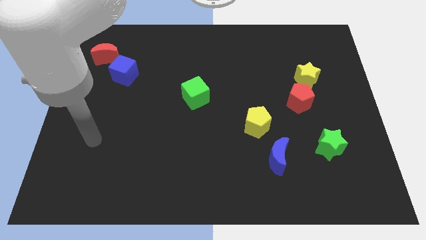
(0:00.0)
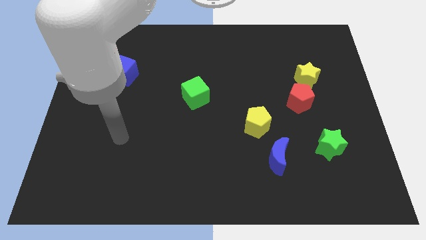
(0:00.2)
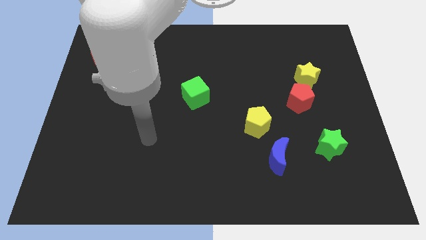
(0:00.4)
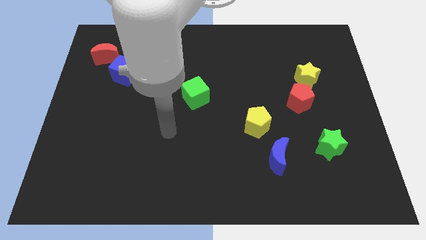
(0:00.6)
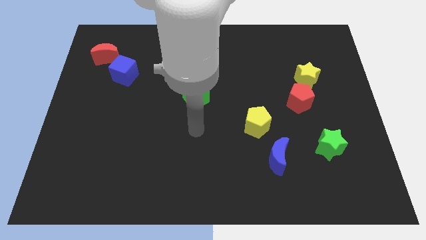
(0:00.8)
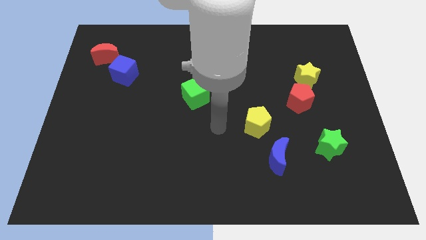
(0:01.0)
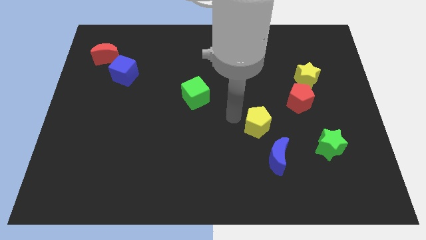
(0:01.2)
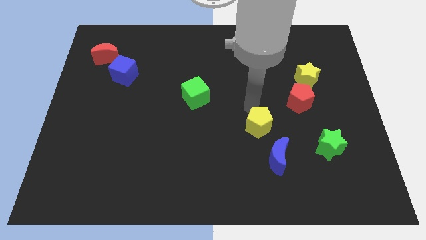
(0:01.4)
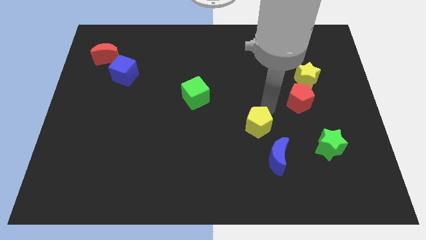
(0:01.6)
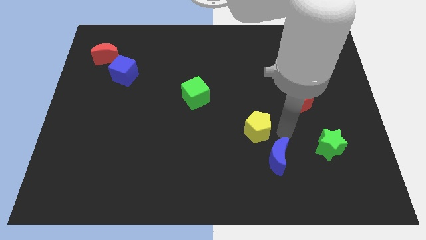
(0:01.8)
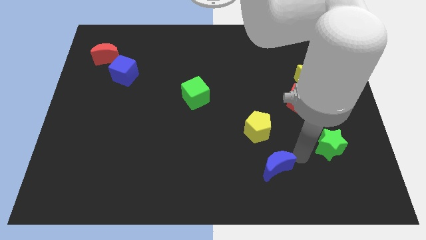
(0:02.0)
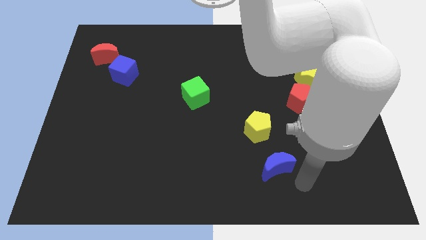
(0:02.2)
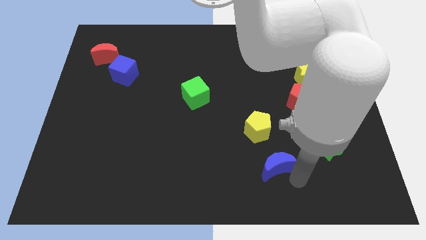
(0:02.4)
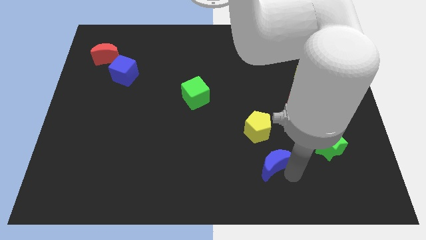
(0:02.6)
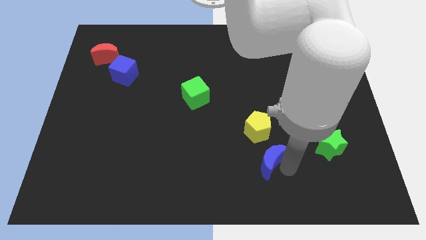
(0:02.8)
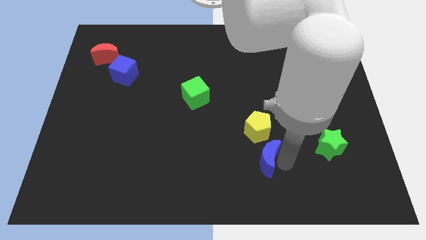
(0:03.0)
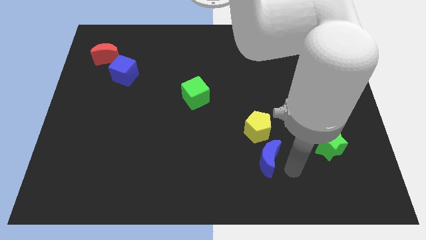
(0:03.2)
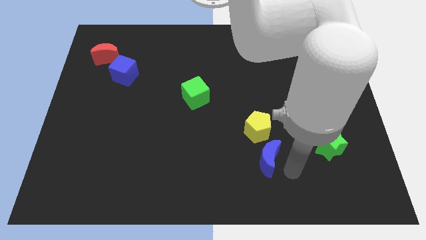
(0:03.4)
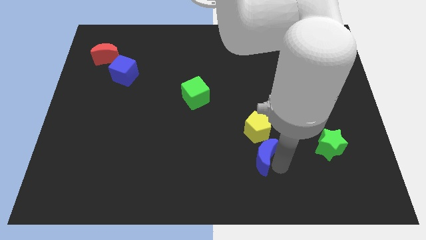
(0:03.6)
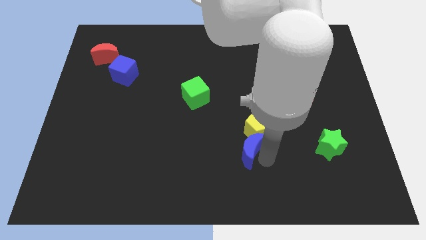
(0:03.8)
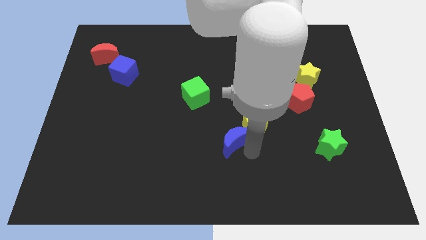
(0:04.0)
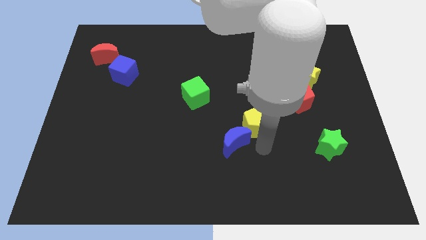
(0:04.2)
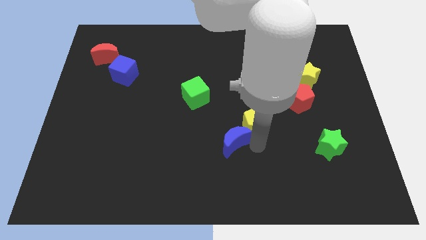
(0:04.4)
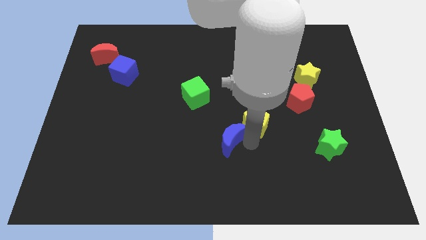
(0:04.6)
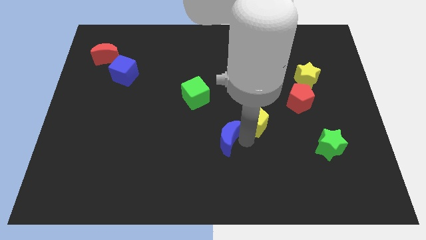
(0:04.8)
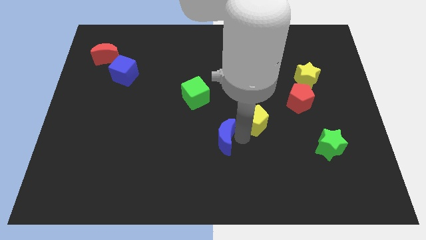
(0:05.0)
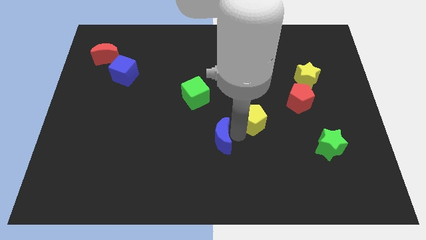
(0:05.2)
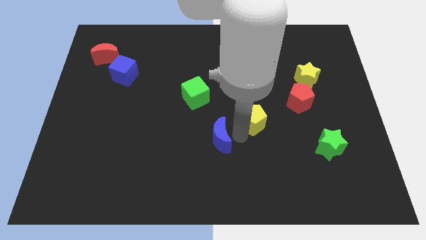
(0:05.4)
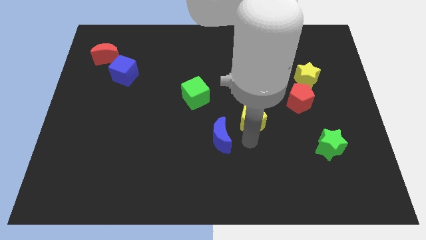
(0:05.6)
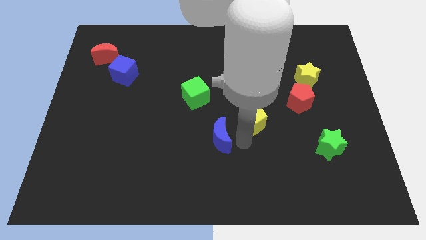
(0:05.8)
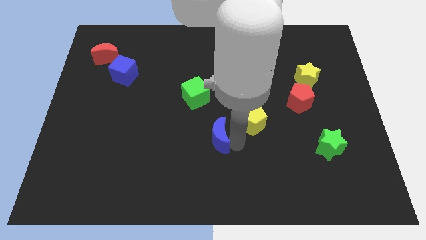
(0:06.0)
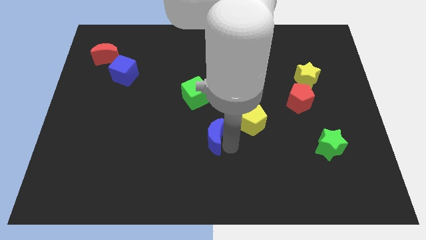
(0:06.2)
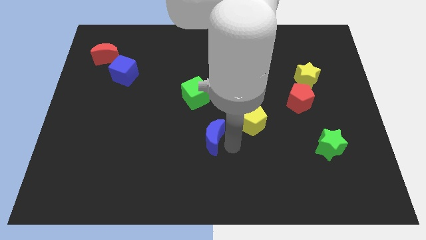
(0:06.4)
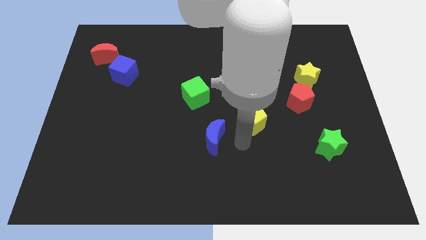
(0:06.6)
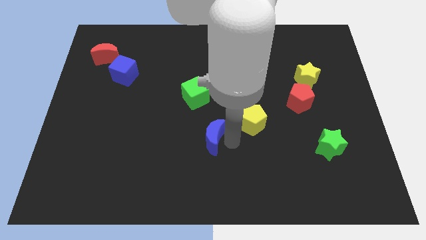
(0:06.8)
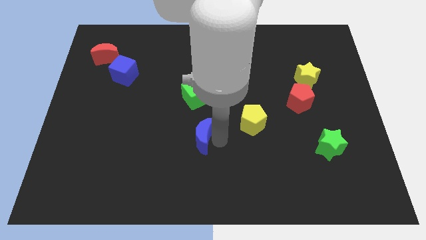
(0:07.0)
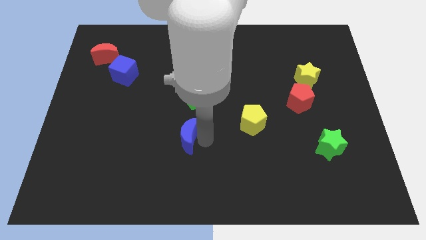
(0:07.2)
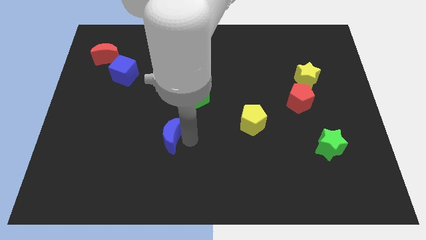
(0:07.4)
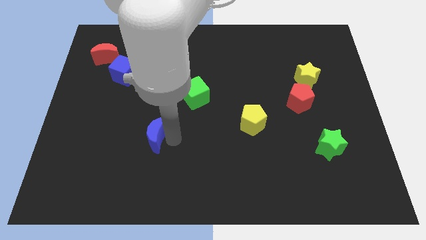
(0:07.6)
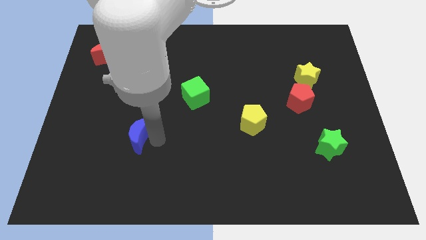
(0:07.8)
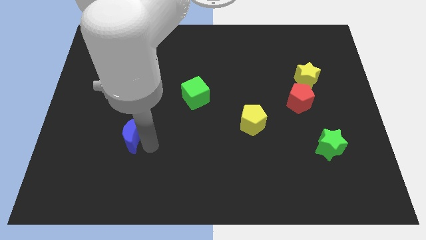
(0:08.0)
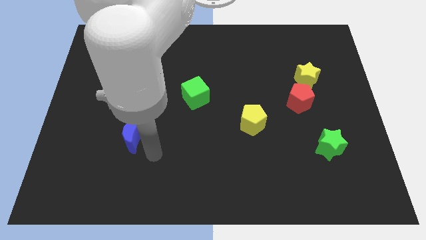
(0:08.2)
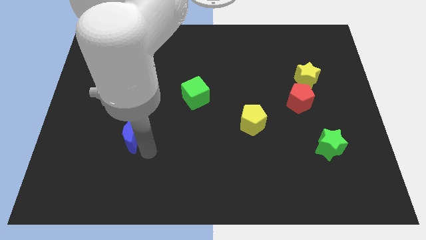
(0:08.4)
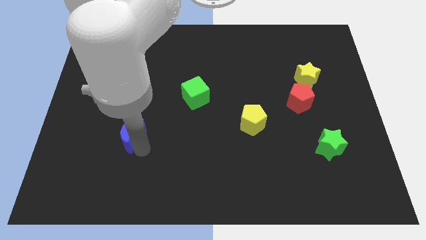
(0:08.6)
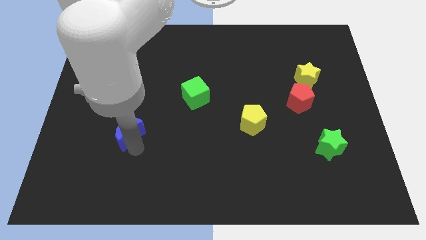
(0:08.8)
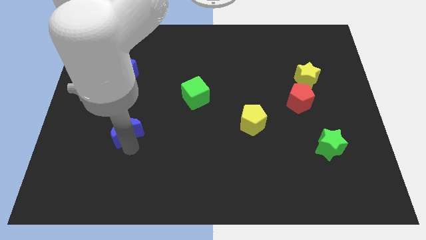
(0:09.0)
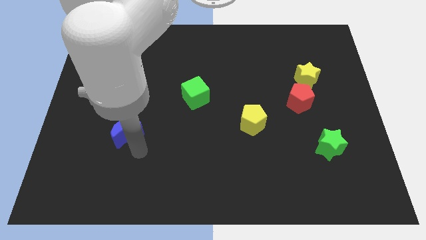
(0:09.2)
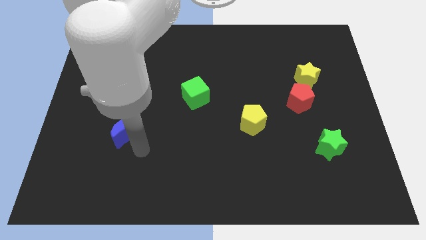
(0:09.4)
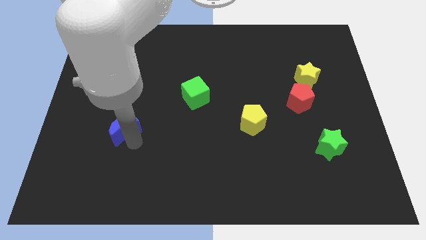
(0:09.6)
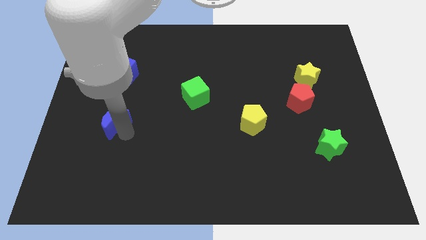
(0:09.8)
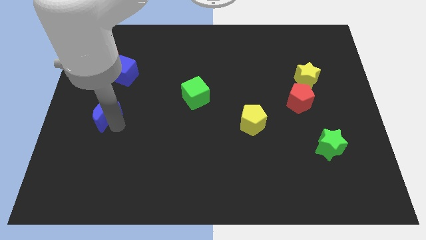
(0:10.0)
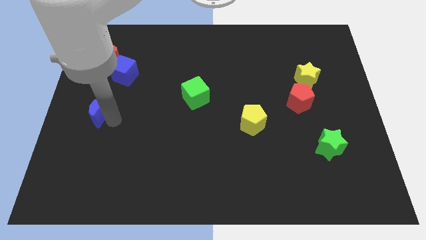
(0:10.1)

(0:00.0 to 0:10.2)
slide the blue moon to the center left

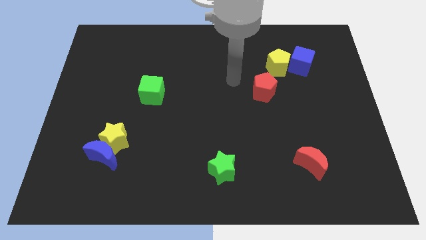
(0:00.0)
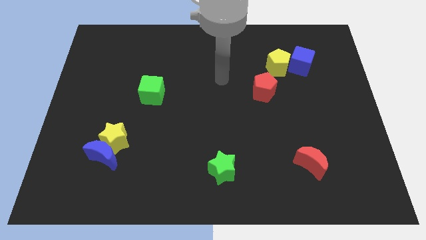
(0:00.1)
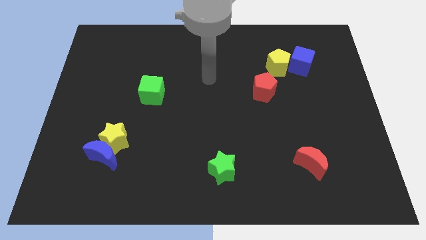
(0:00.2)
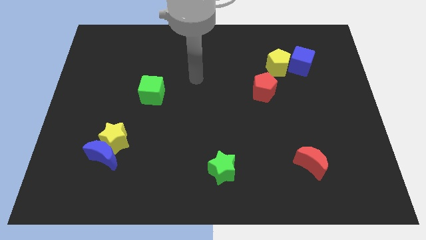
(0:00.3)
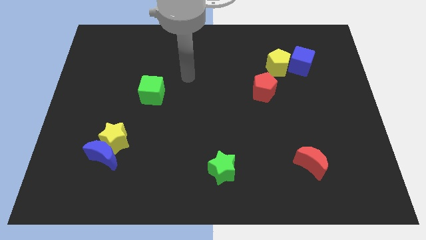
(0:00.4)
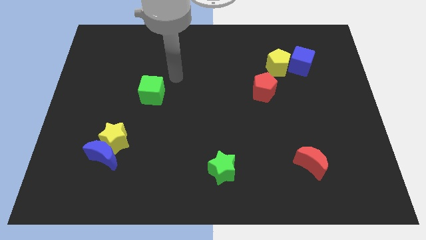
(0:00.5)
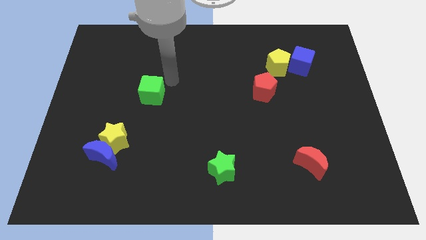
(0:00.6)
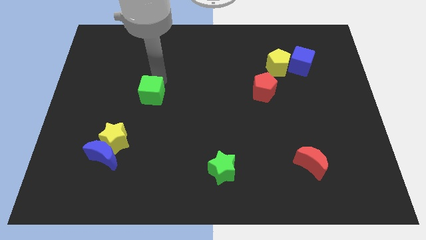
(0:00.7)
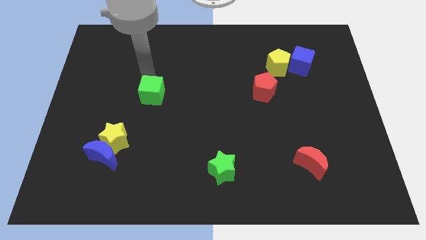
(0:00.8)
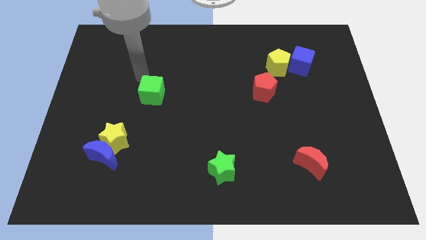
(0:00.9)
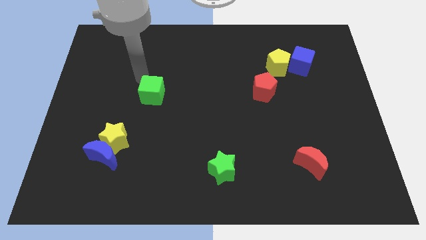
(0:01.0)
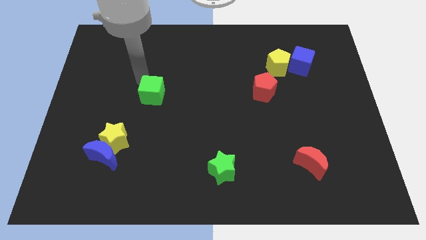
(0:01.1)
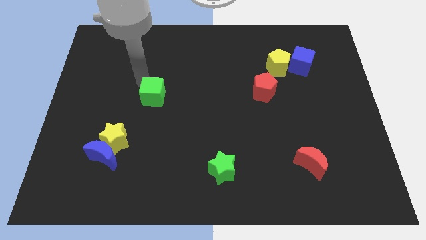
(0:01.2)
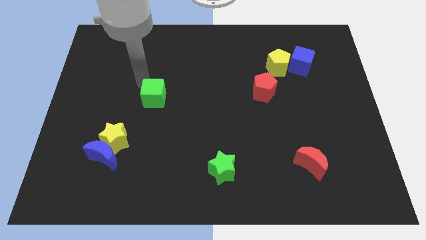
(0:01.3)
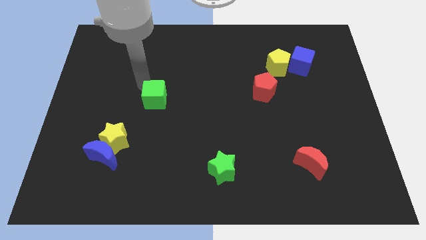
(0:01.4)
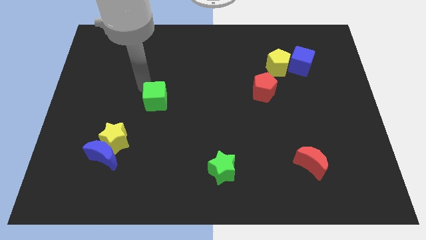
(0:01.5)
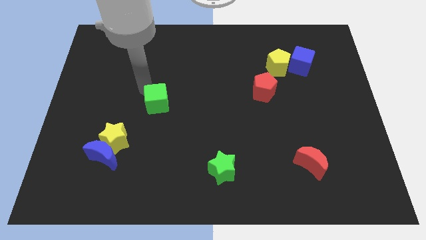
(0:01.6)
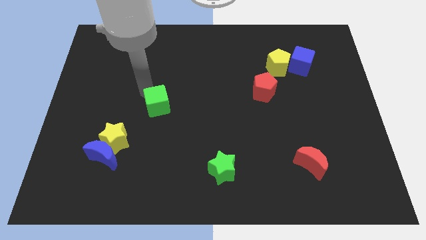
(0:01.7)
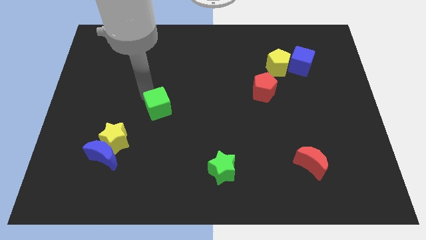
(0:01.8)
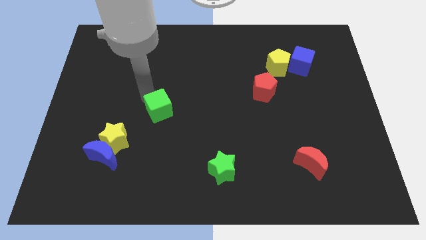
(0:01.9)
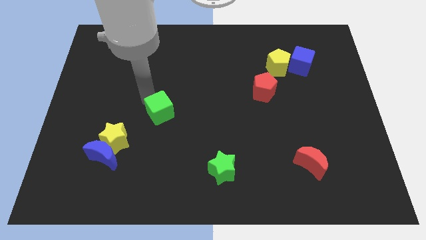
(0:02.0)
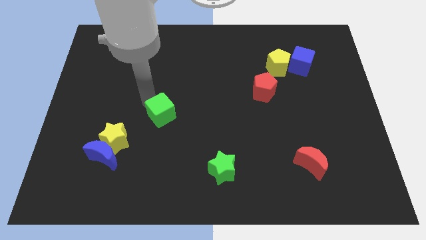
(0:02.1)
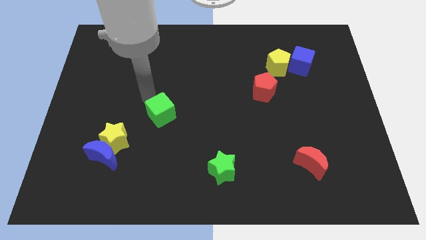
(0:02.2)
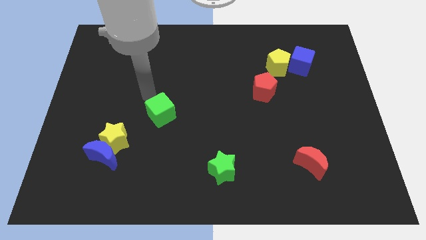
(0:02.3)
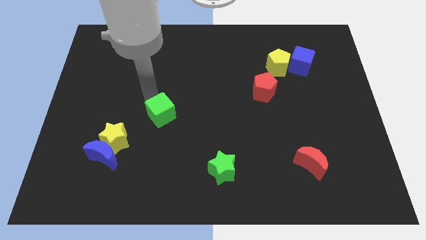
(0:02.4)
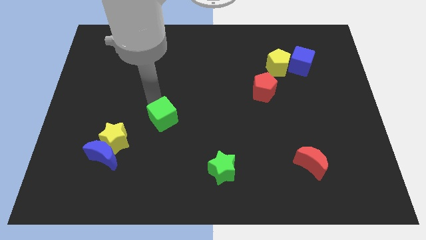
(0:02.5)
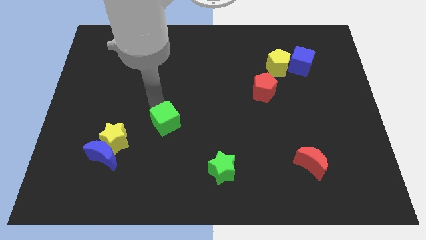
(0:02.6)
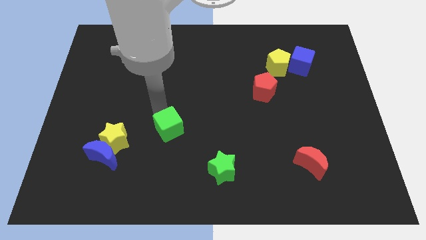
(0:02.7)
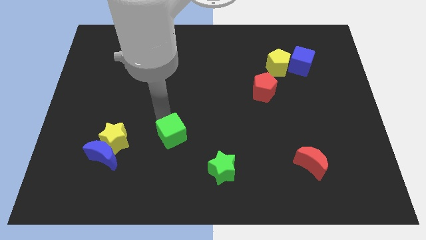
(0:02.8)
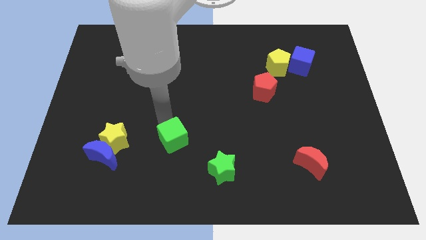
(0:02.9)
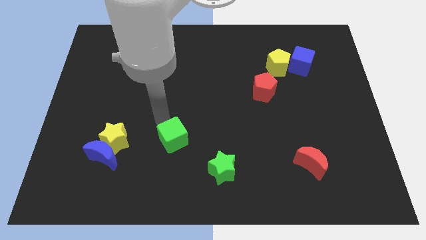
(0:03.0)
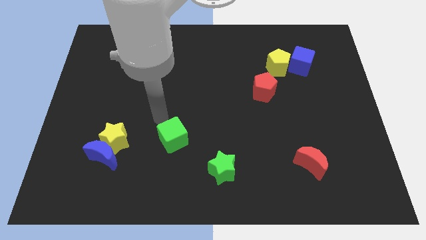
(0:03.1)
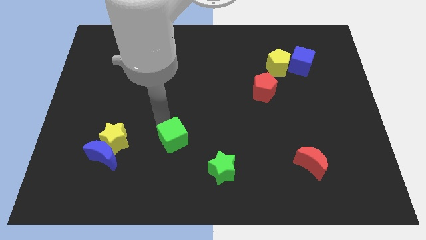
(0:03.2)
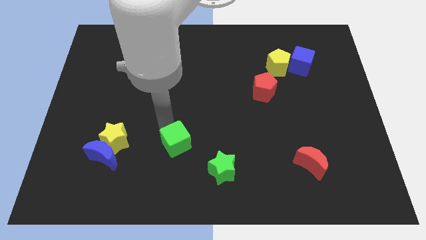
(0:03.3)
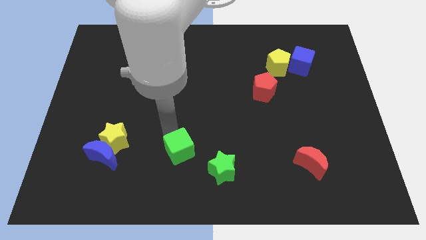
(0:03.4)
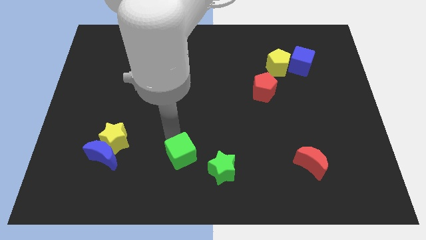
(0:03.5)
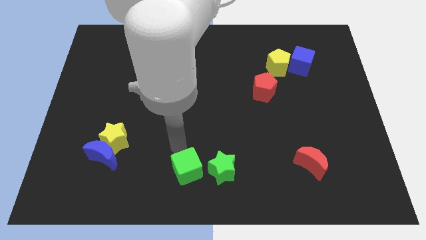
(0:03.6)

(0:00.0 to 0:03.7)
put the green cube to the bottom side
